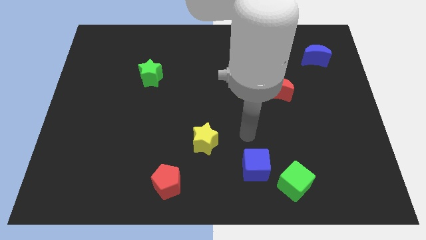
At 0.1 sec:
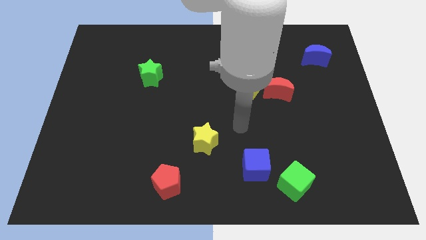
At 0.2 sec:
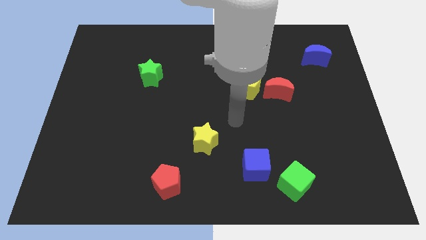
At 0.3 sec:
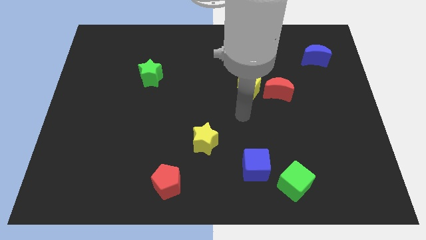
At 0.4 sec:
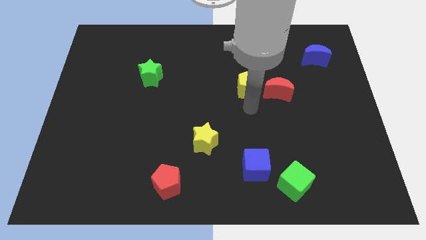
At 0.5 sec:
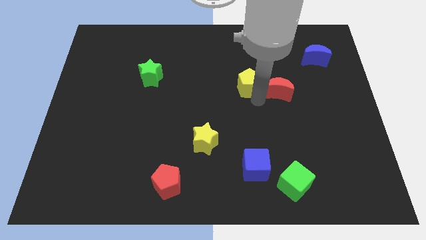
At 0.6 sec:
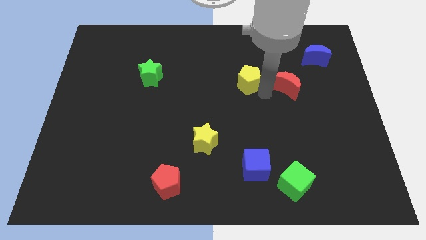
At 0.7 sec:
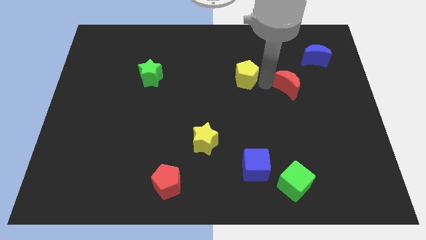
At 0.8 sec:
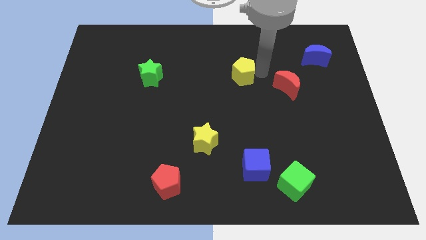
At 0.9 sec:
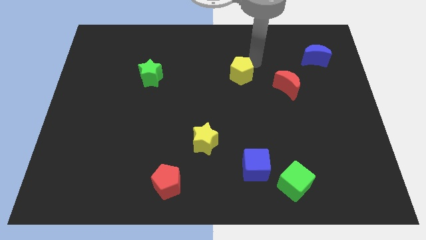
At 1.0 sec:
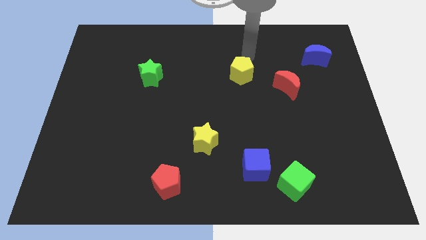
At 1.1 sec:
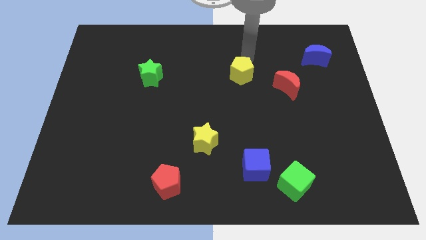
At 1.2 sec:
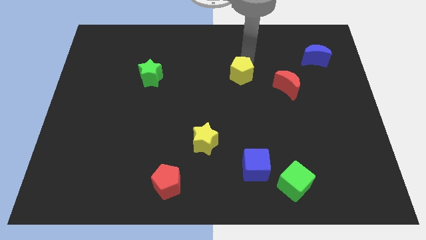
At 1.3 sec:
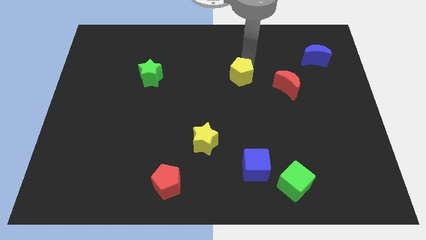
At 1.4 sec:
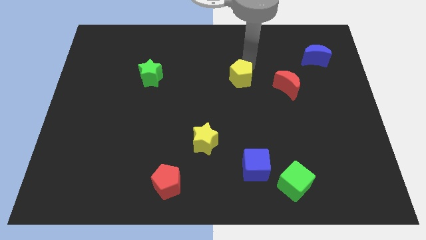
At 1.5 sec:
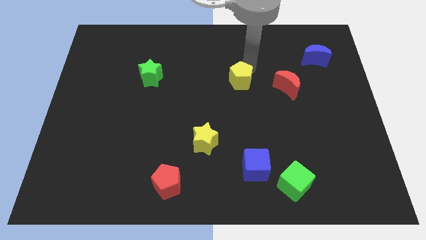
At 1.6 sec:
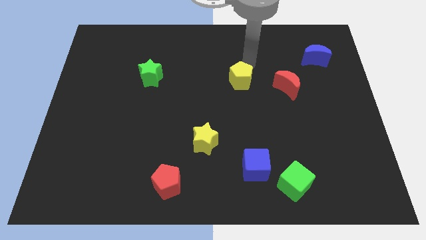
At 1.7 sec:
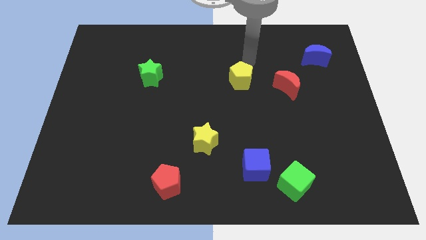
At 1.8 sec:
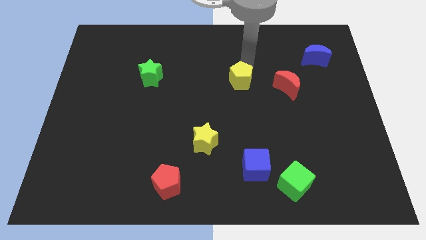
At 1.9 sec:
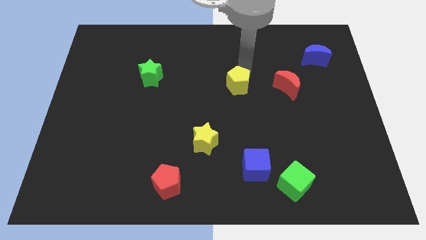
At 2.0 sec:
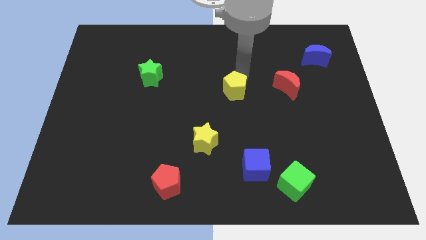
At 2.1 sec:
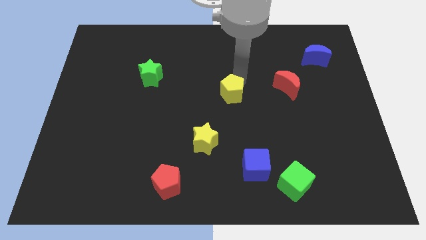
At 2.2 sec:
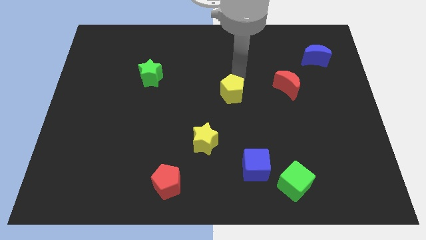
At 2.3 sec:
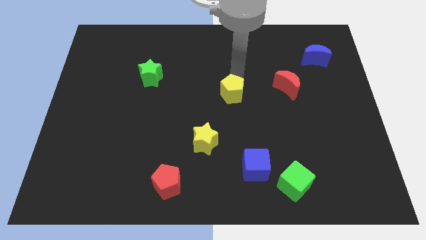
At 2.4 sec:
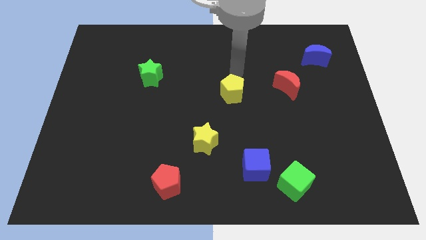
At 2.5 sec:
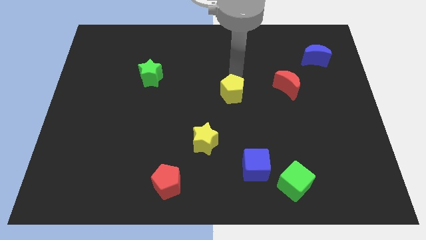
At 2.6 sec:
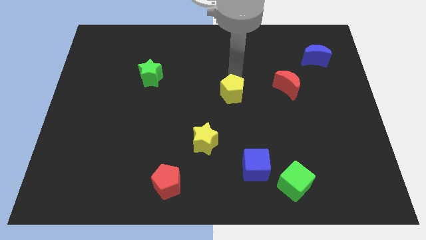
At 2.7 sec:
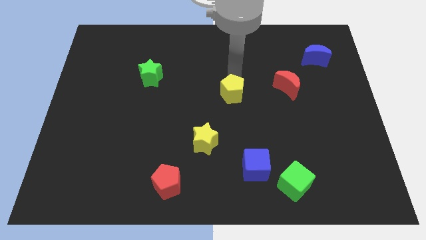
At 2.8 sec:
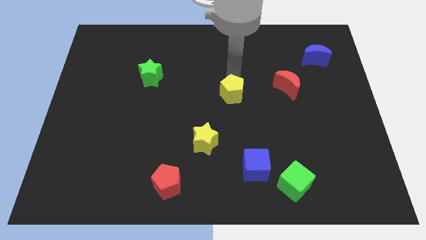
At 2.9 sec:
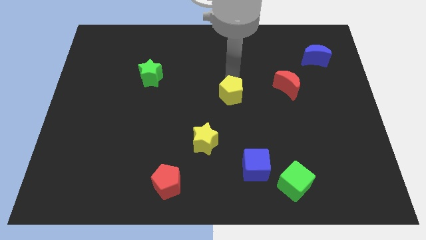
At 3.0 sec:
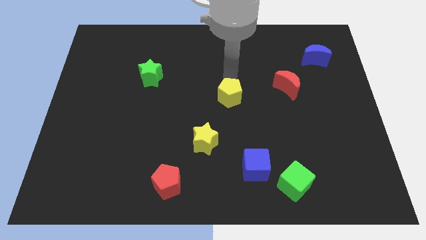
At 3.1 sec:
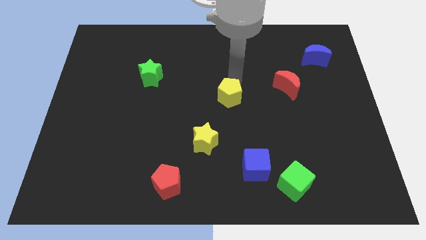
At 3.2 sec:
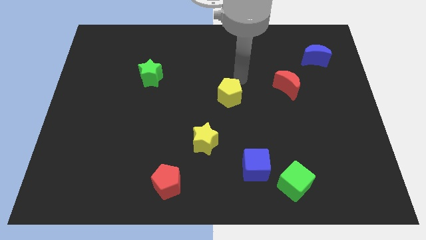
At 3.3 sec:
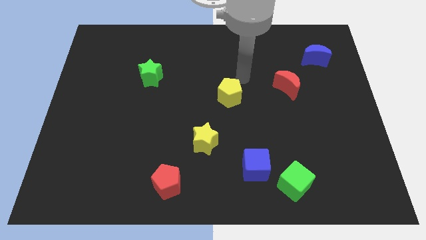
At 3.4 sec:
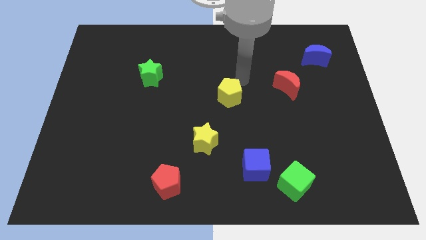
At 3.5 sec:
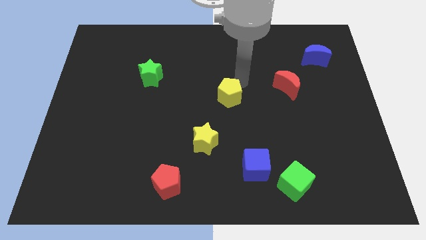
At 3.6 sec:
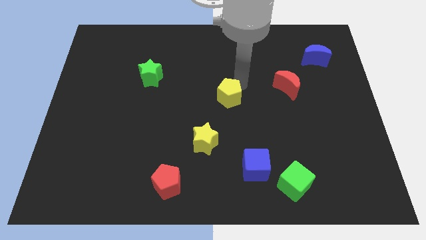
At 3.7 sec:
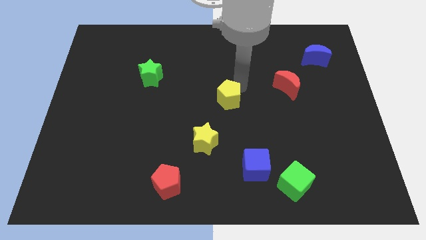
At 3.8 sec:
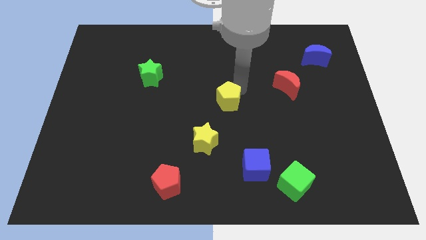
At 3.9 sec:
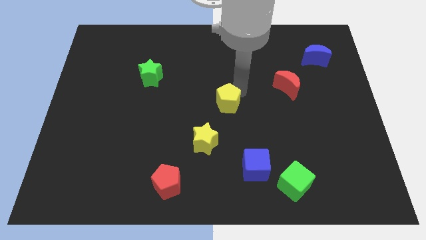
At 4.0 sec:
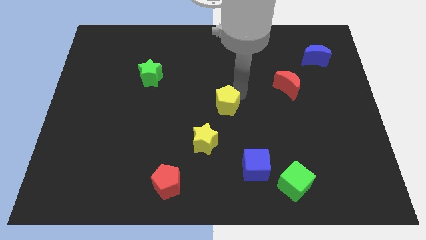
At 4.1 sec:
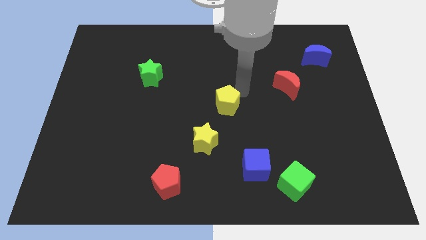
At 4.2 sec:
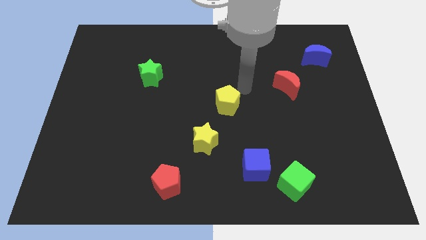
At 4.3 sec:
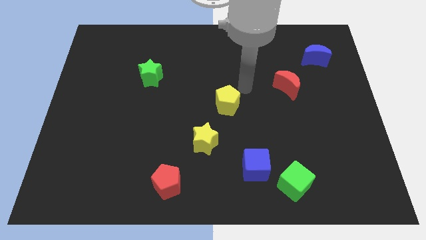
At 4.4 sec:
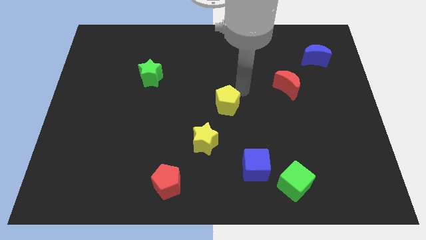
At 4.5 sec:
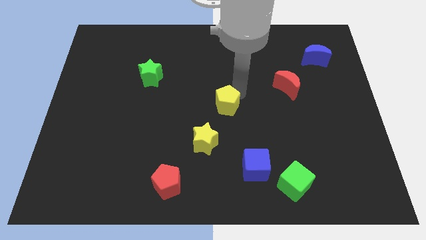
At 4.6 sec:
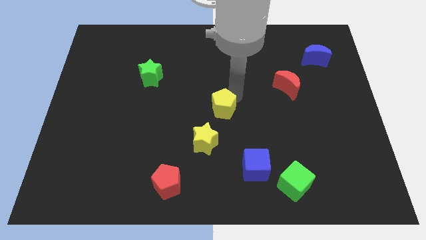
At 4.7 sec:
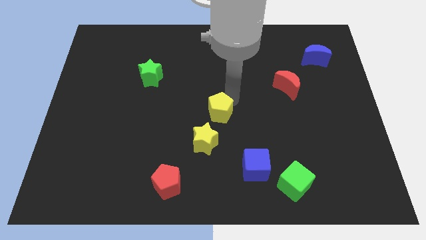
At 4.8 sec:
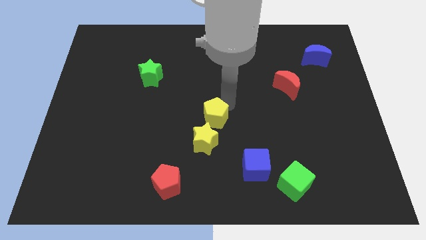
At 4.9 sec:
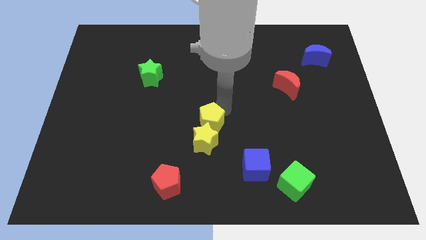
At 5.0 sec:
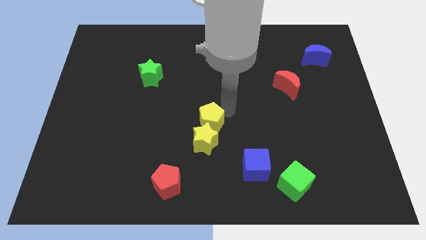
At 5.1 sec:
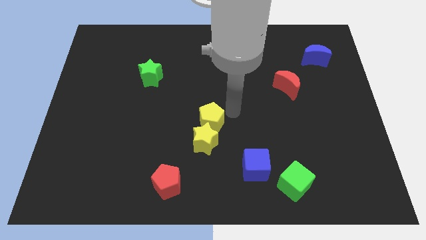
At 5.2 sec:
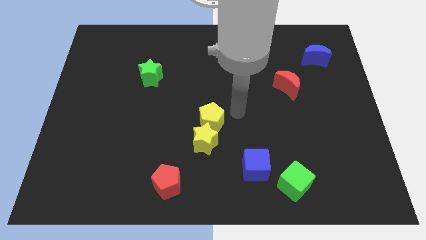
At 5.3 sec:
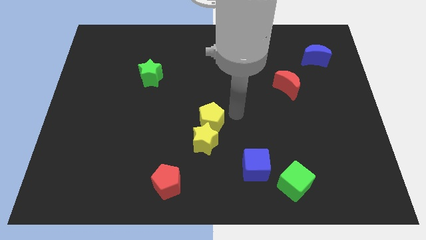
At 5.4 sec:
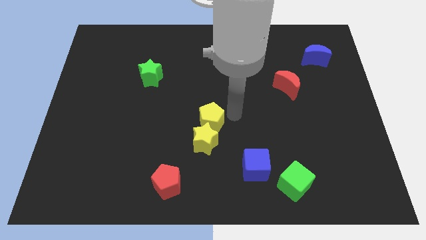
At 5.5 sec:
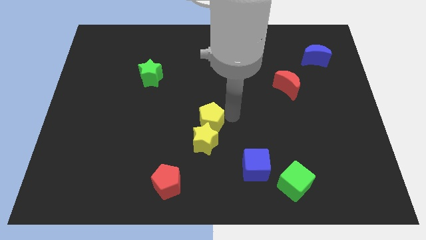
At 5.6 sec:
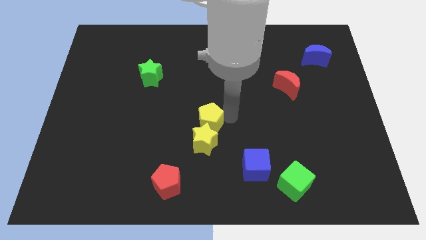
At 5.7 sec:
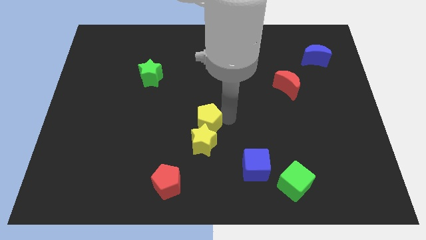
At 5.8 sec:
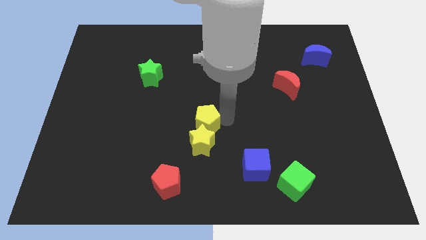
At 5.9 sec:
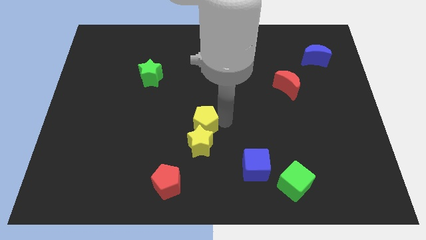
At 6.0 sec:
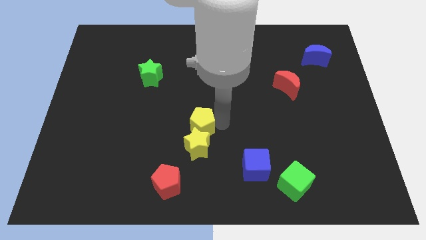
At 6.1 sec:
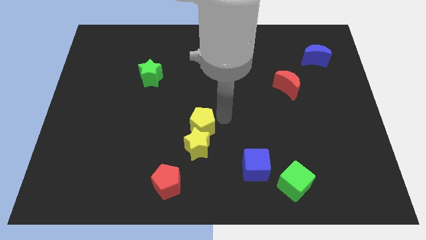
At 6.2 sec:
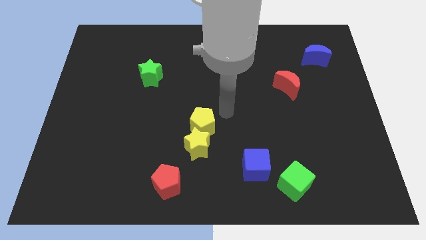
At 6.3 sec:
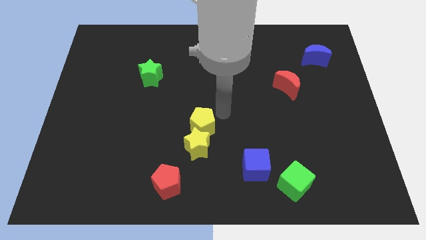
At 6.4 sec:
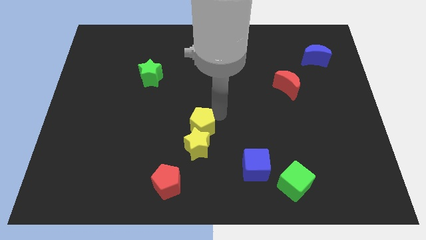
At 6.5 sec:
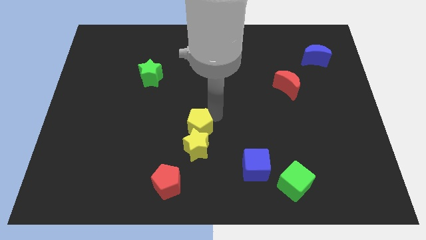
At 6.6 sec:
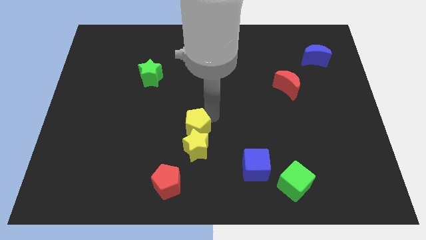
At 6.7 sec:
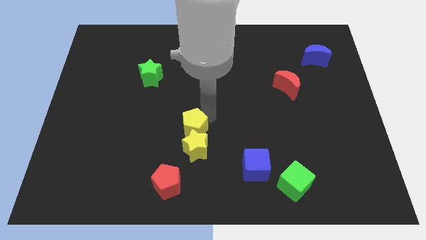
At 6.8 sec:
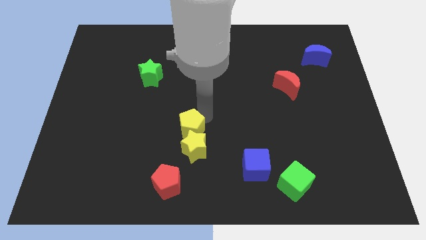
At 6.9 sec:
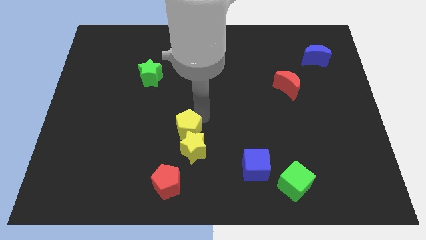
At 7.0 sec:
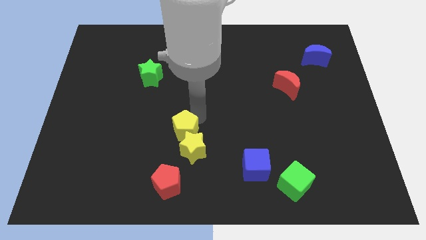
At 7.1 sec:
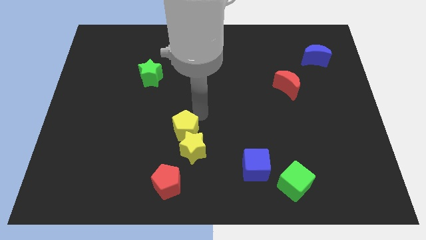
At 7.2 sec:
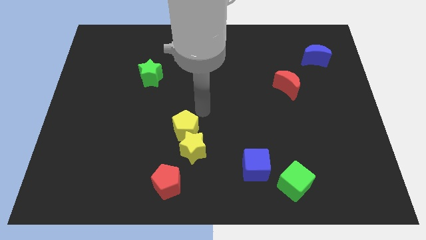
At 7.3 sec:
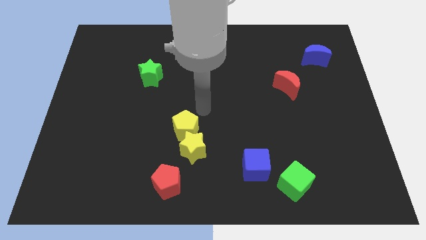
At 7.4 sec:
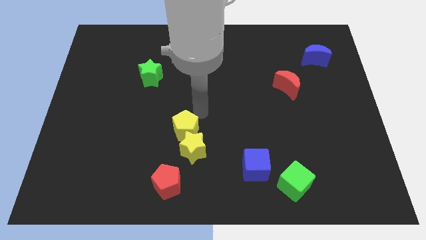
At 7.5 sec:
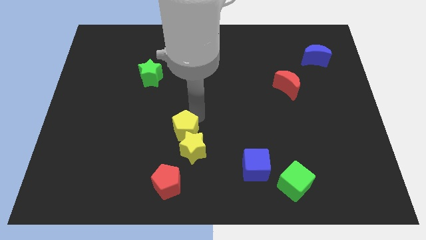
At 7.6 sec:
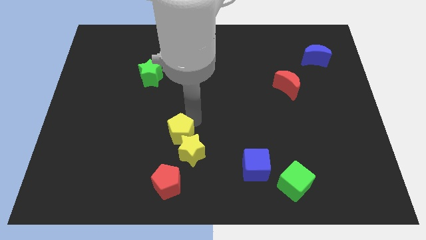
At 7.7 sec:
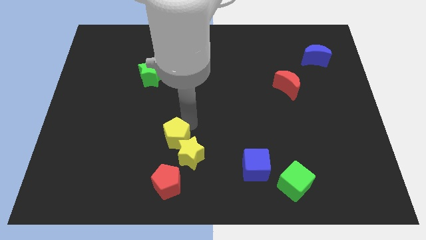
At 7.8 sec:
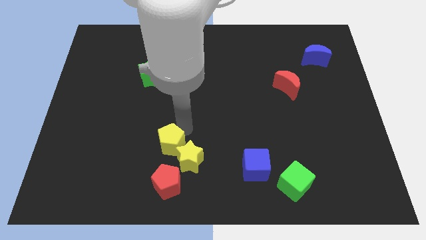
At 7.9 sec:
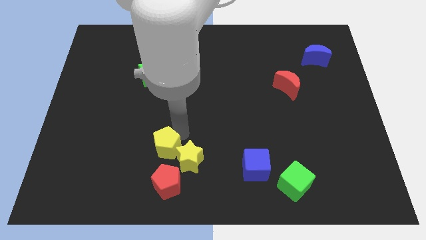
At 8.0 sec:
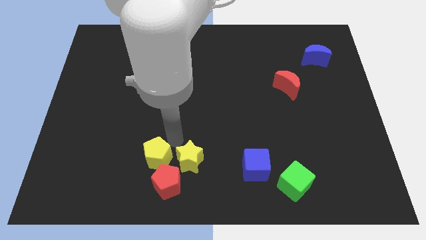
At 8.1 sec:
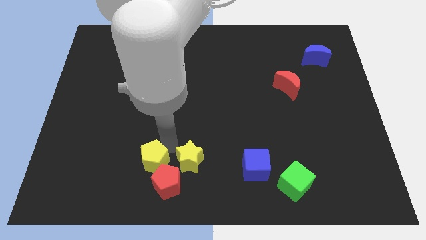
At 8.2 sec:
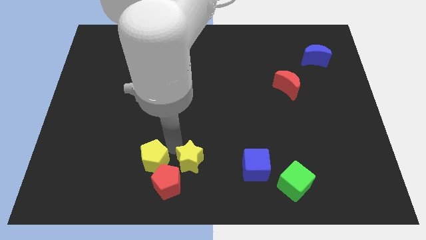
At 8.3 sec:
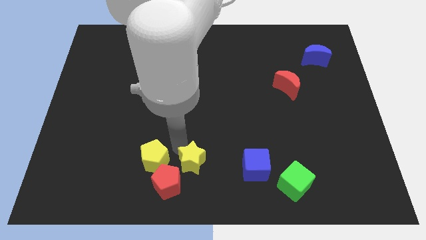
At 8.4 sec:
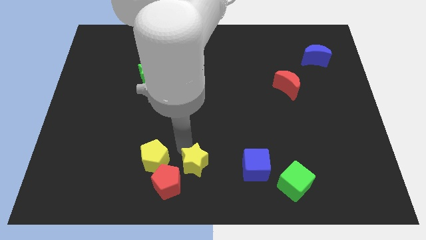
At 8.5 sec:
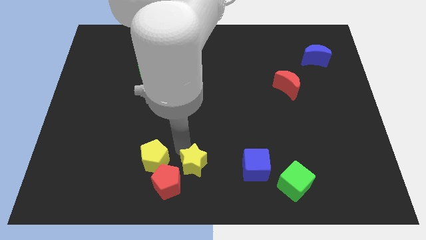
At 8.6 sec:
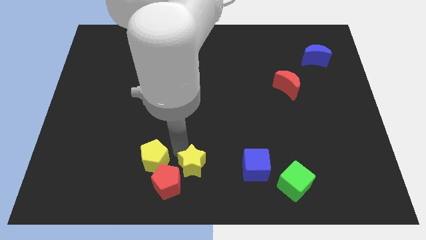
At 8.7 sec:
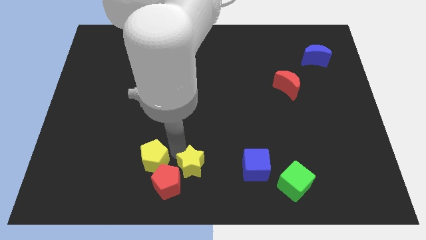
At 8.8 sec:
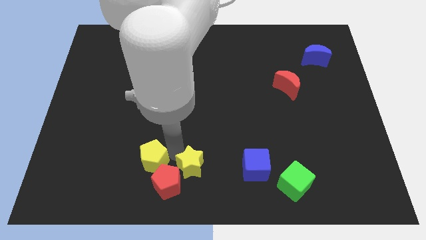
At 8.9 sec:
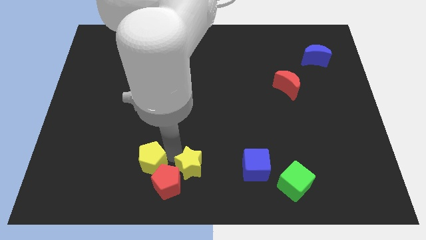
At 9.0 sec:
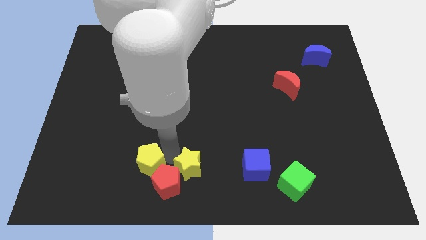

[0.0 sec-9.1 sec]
put the yellow pentagon to the left side of the red pentagon
